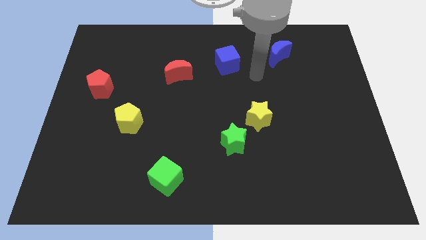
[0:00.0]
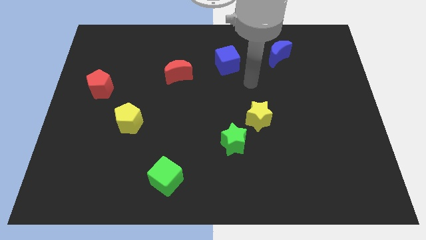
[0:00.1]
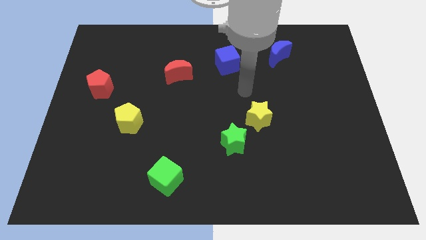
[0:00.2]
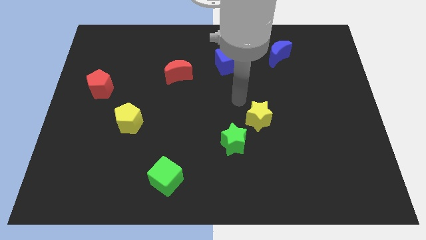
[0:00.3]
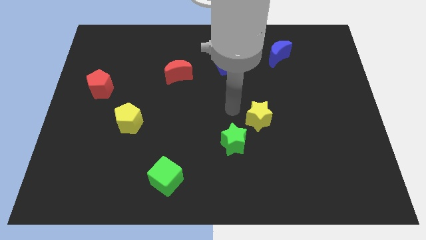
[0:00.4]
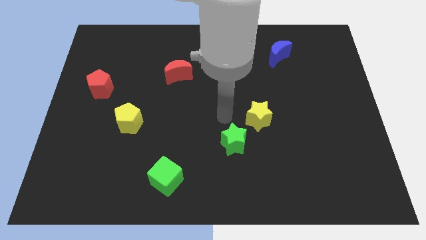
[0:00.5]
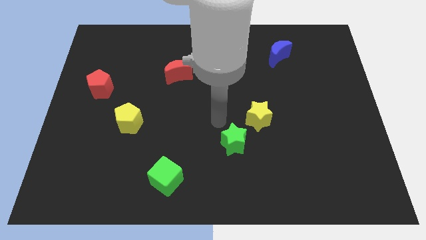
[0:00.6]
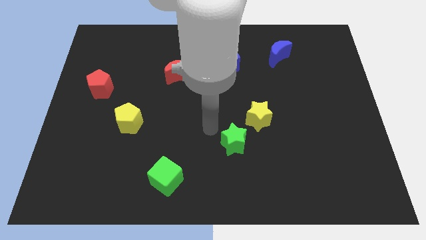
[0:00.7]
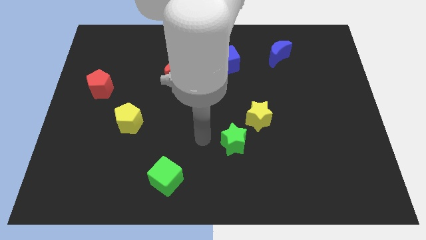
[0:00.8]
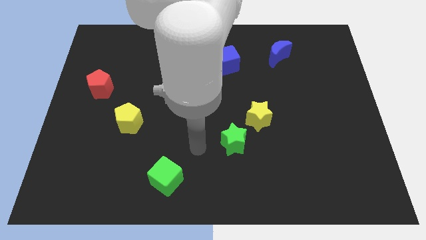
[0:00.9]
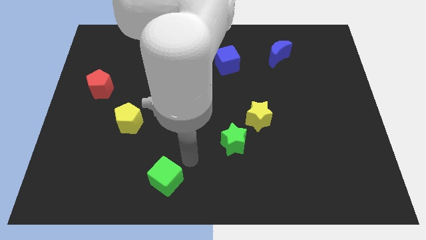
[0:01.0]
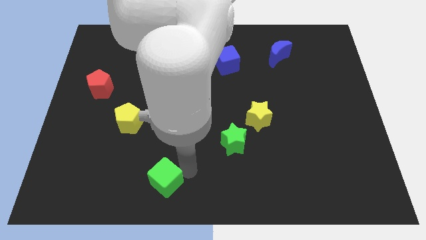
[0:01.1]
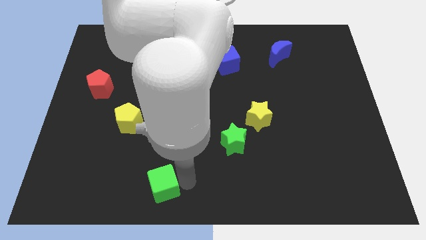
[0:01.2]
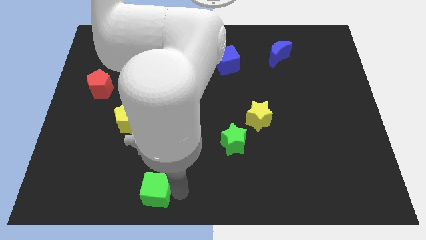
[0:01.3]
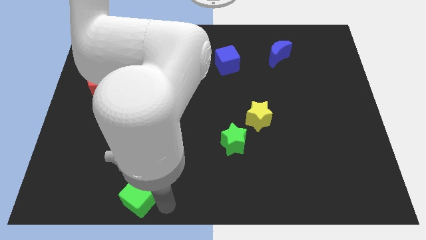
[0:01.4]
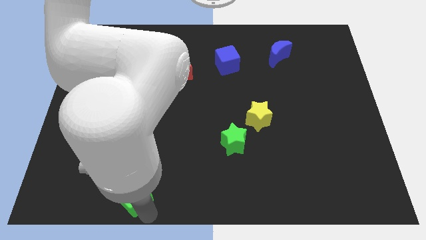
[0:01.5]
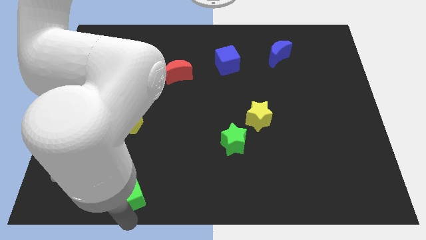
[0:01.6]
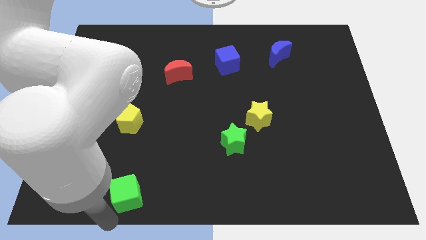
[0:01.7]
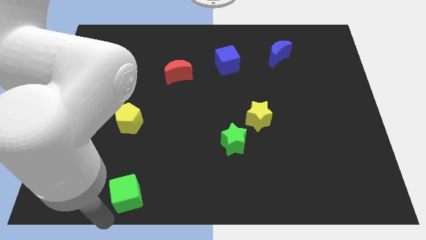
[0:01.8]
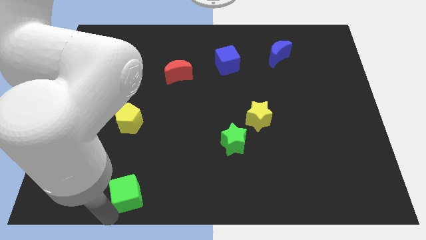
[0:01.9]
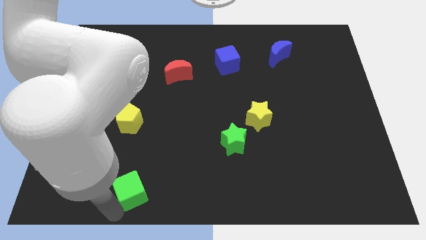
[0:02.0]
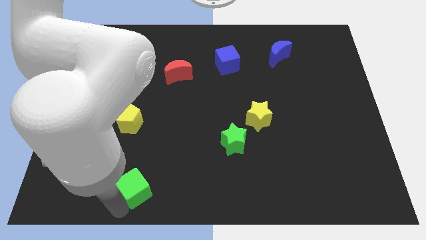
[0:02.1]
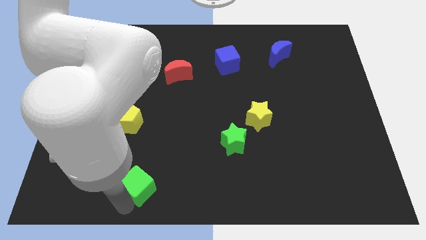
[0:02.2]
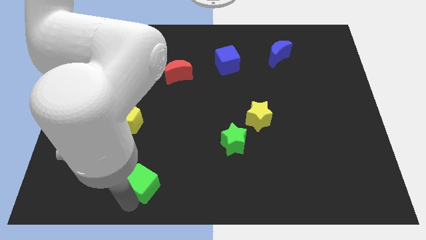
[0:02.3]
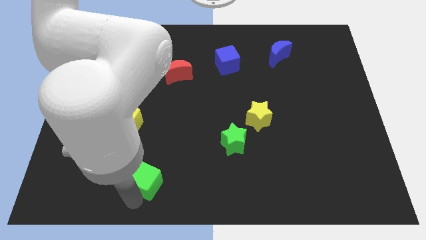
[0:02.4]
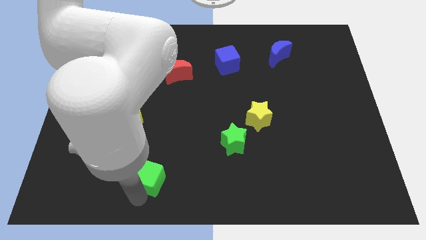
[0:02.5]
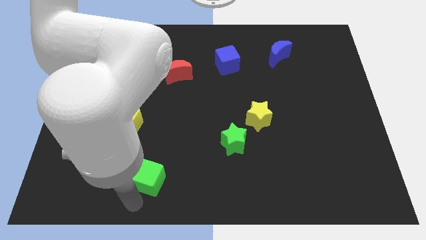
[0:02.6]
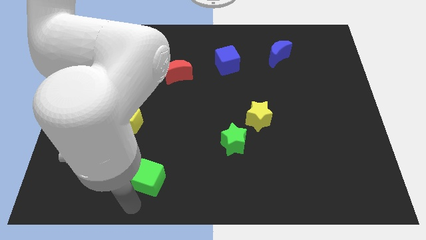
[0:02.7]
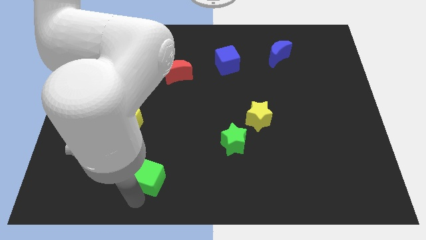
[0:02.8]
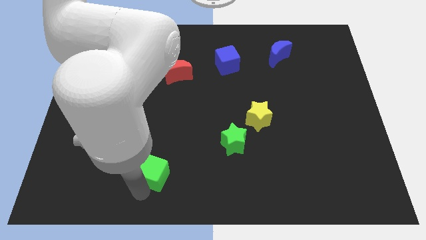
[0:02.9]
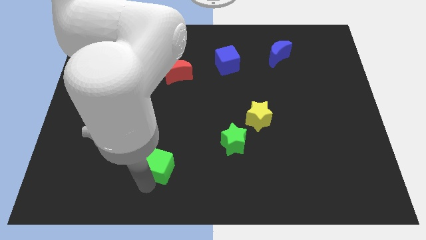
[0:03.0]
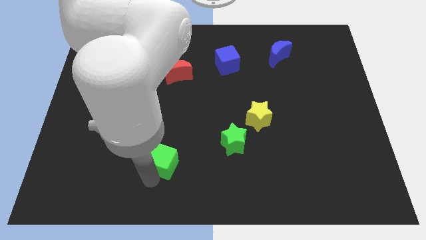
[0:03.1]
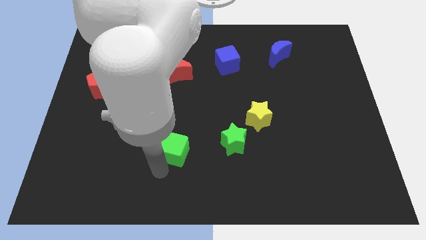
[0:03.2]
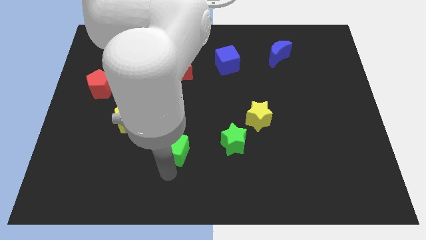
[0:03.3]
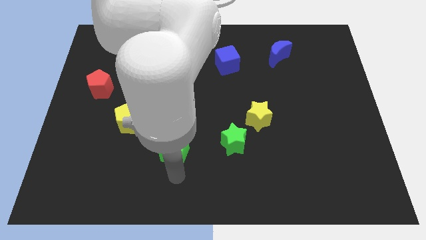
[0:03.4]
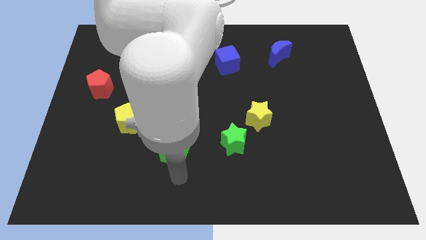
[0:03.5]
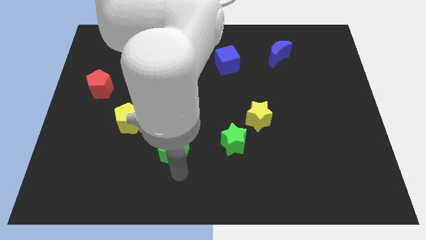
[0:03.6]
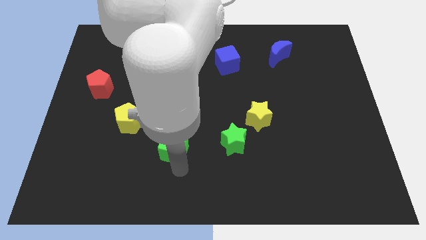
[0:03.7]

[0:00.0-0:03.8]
slightly slide the green cube up

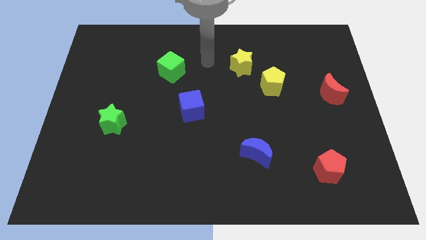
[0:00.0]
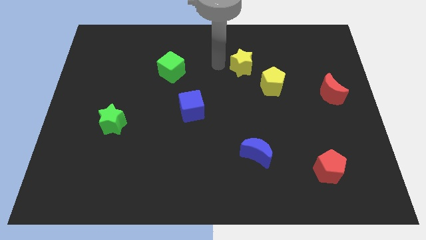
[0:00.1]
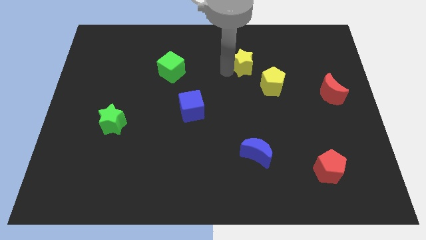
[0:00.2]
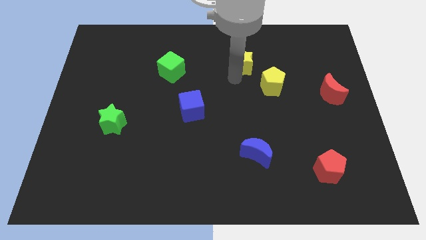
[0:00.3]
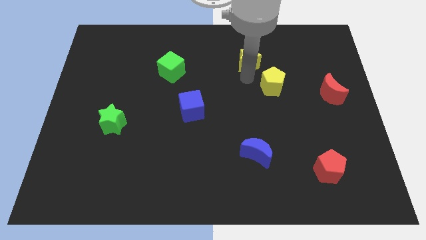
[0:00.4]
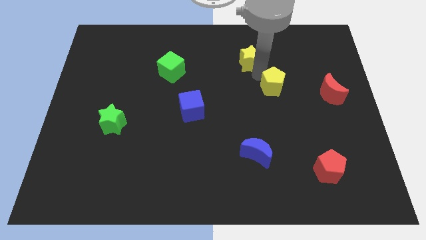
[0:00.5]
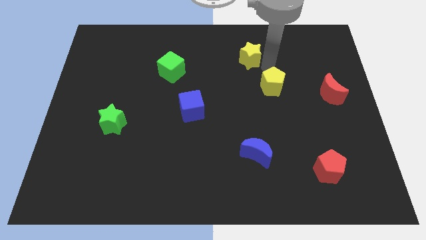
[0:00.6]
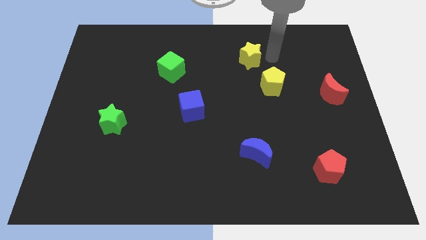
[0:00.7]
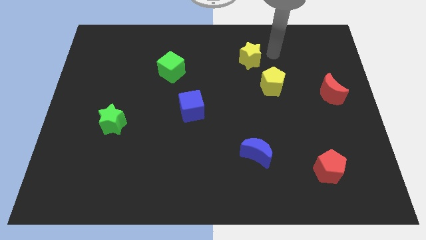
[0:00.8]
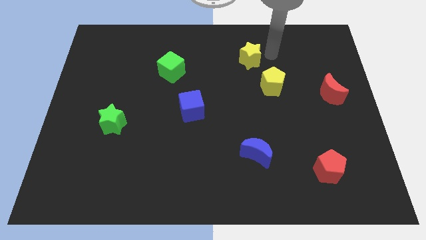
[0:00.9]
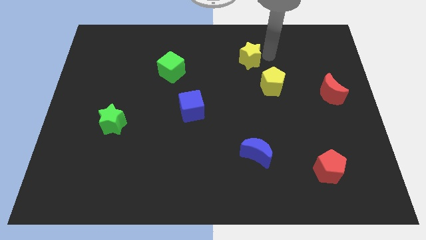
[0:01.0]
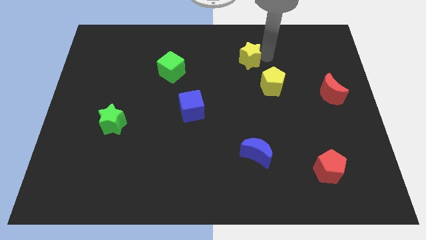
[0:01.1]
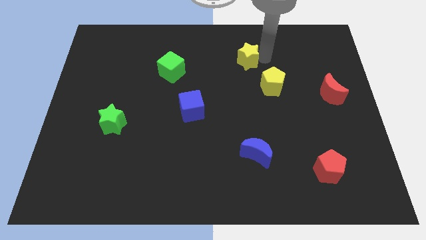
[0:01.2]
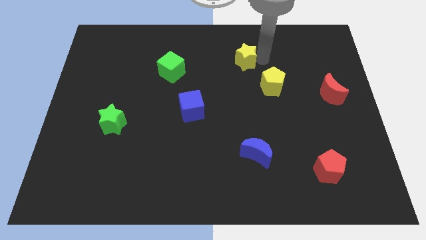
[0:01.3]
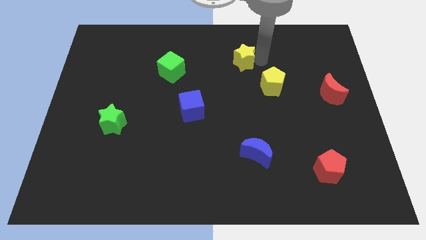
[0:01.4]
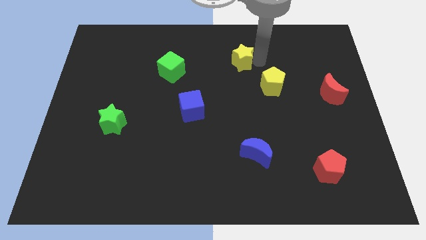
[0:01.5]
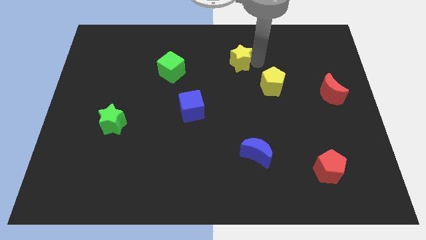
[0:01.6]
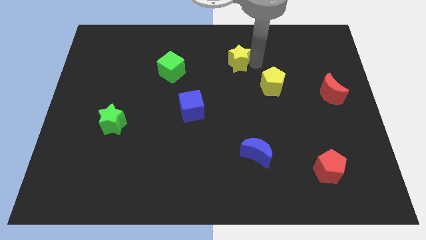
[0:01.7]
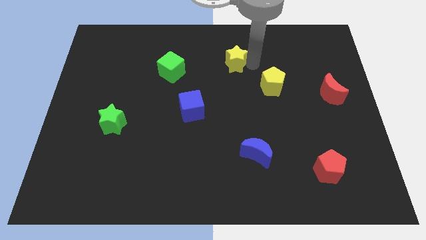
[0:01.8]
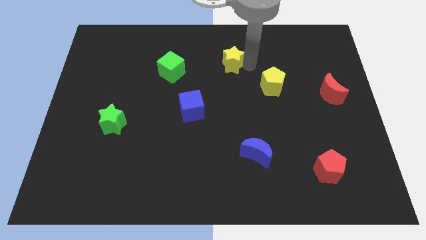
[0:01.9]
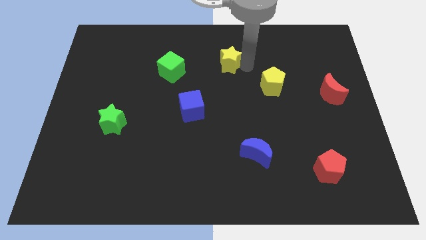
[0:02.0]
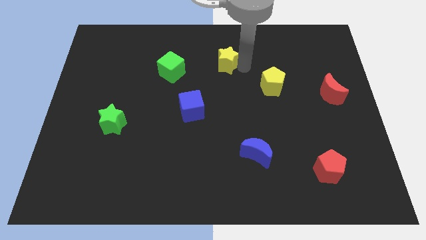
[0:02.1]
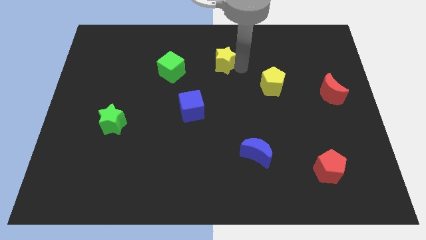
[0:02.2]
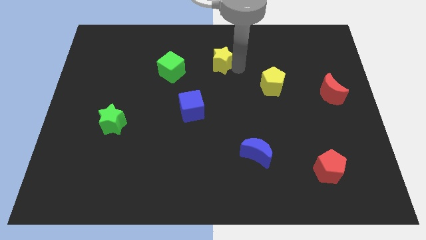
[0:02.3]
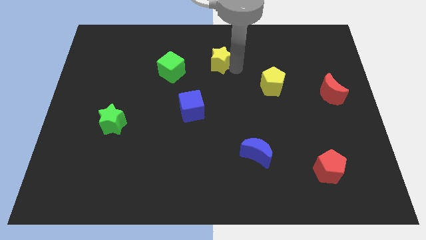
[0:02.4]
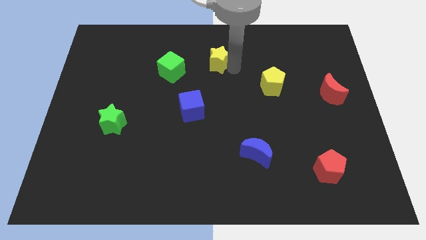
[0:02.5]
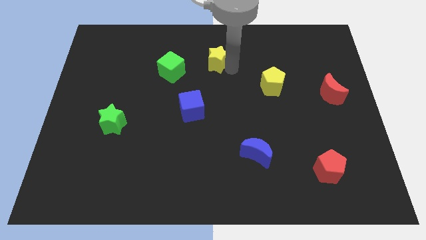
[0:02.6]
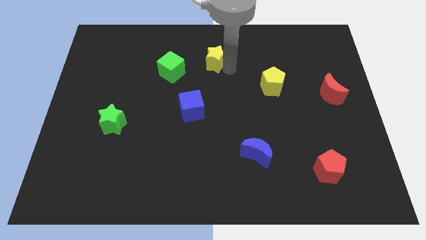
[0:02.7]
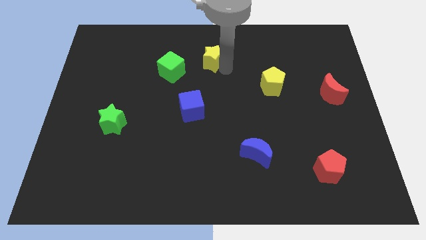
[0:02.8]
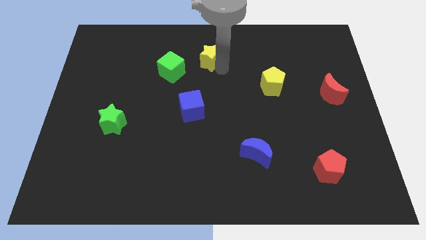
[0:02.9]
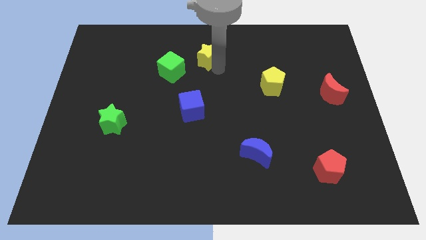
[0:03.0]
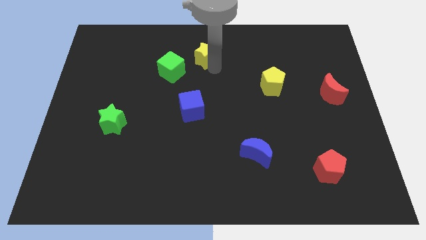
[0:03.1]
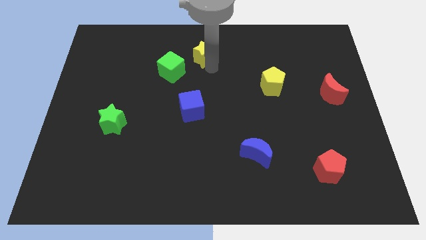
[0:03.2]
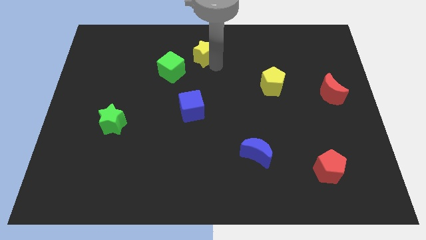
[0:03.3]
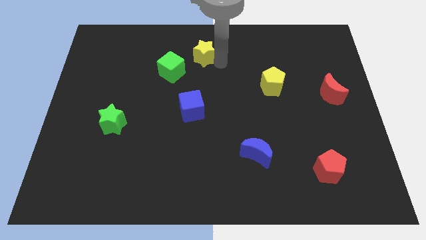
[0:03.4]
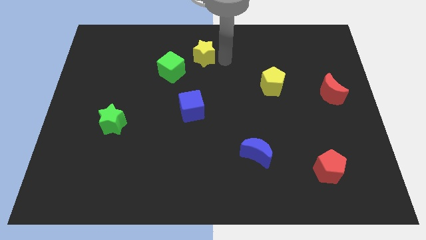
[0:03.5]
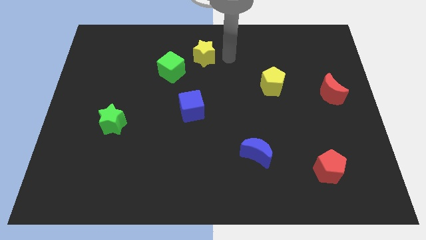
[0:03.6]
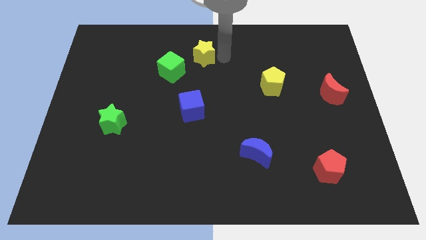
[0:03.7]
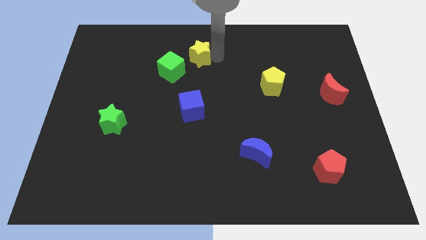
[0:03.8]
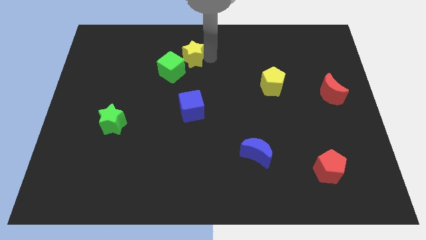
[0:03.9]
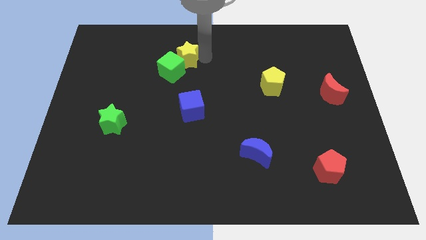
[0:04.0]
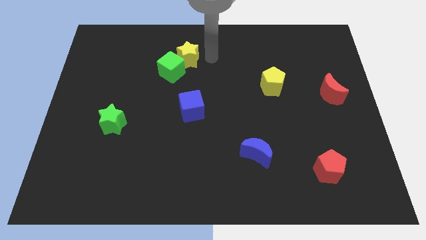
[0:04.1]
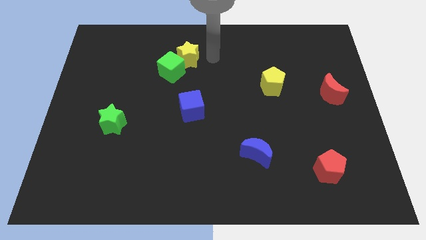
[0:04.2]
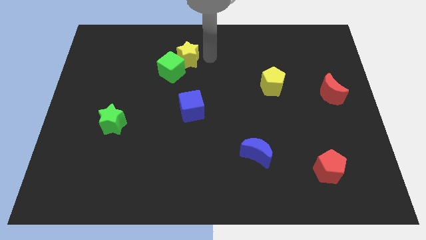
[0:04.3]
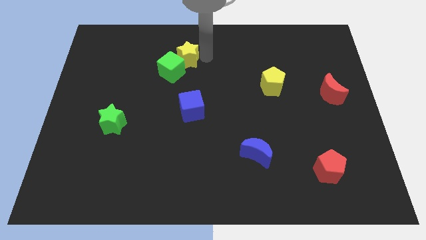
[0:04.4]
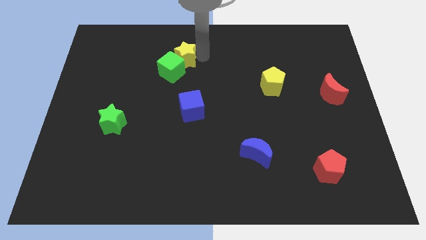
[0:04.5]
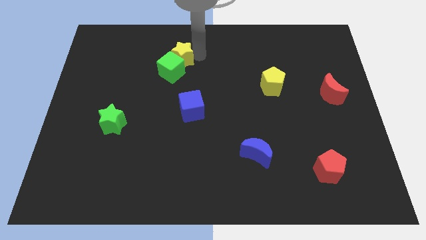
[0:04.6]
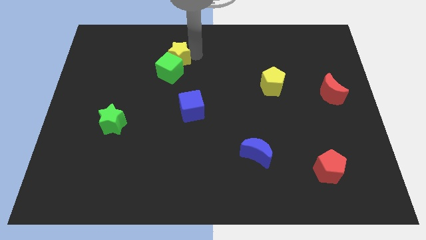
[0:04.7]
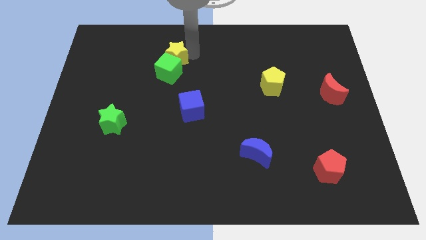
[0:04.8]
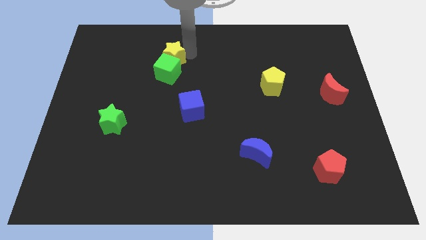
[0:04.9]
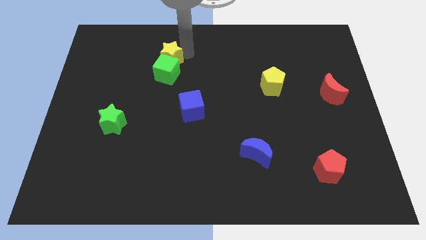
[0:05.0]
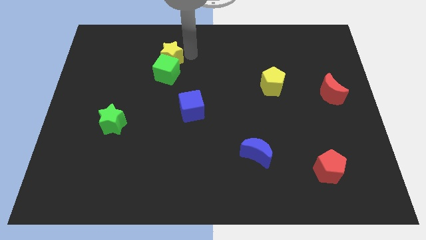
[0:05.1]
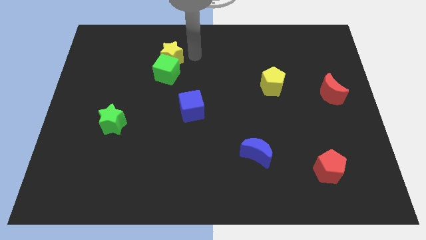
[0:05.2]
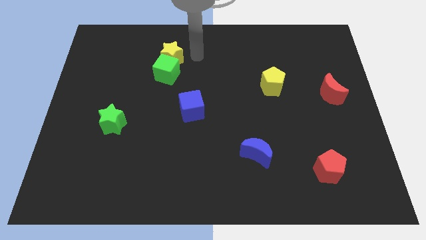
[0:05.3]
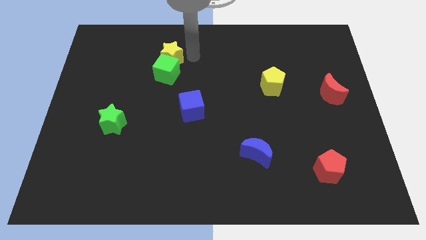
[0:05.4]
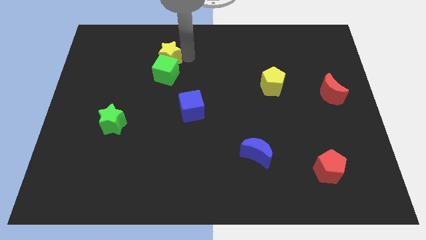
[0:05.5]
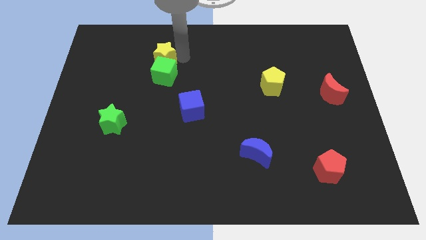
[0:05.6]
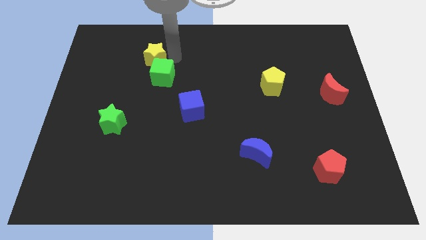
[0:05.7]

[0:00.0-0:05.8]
slide the yellow star left
